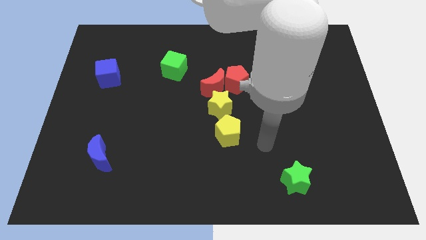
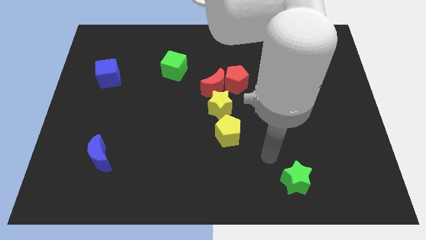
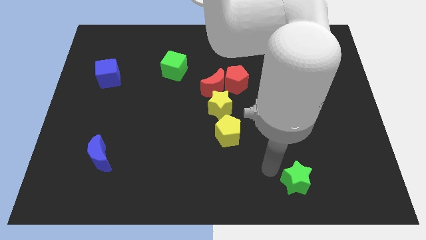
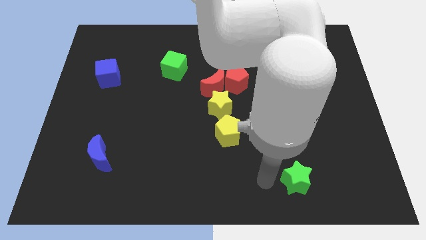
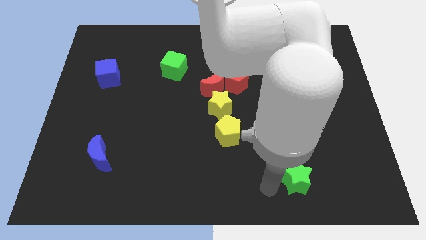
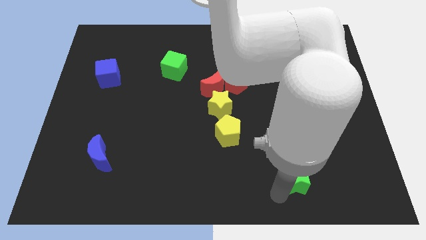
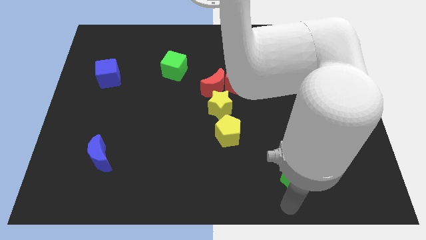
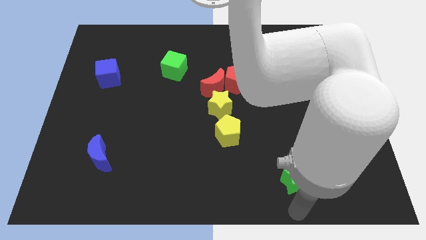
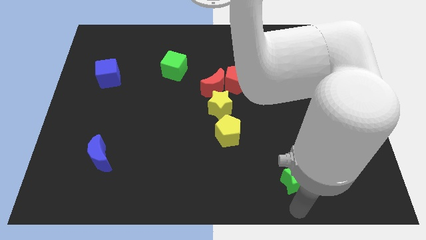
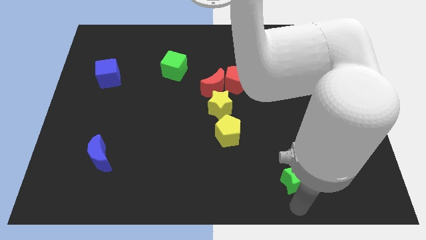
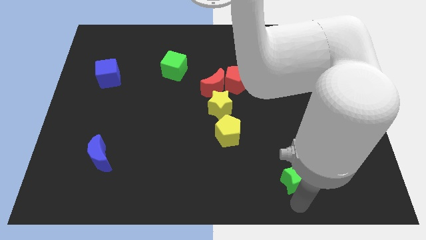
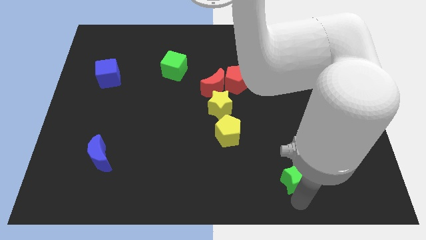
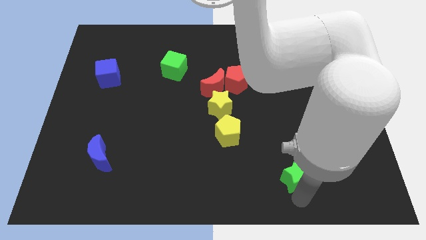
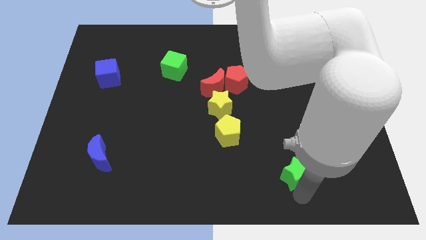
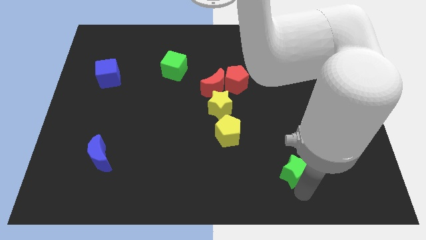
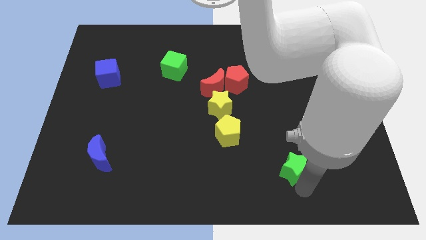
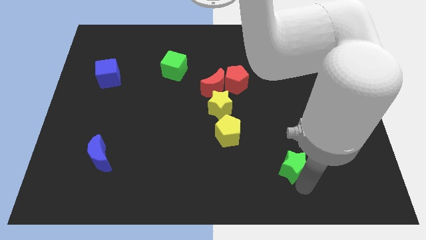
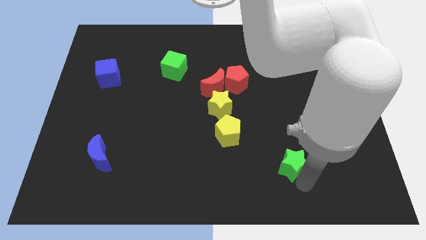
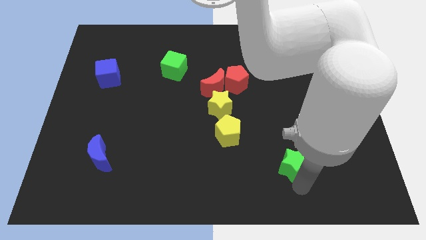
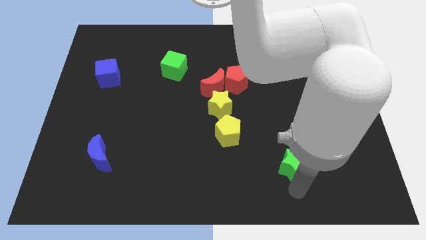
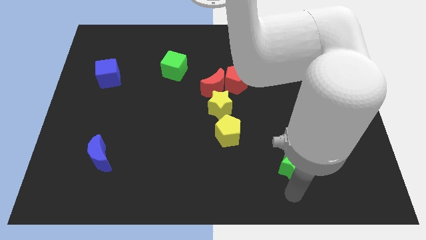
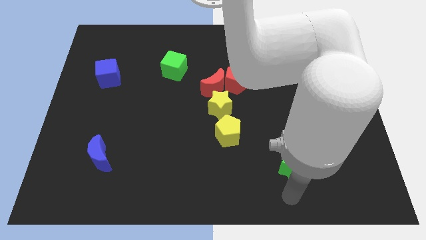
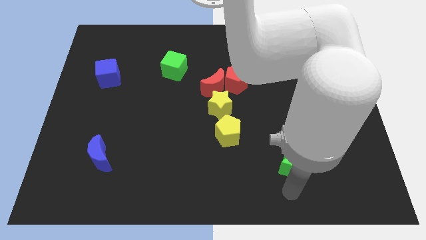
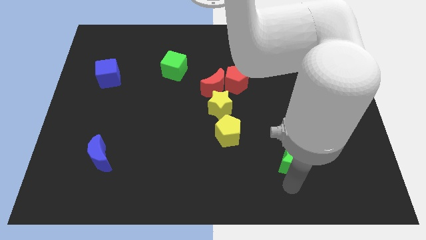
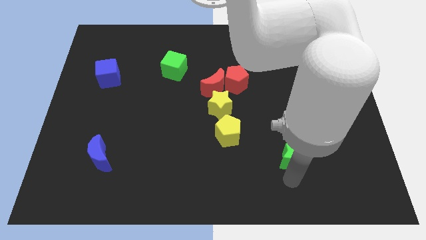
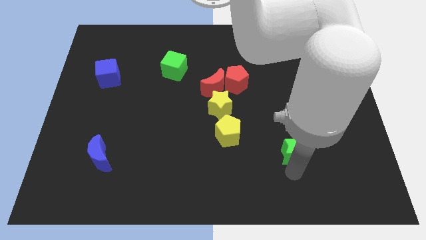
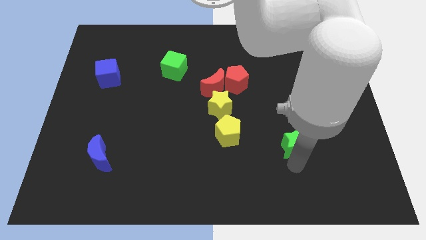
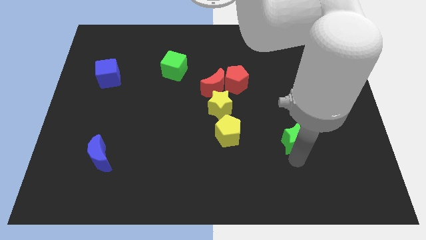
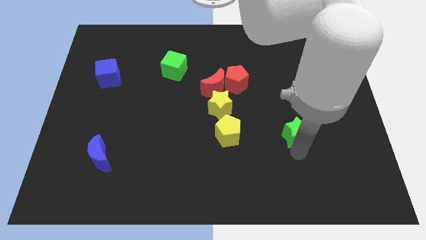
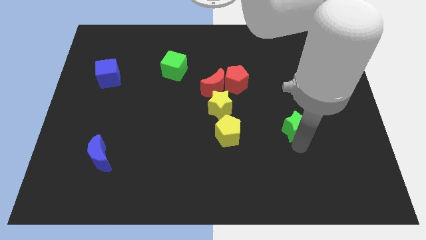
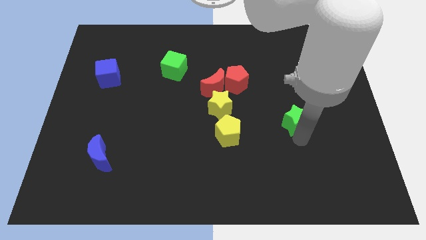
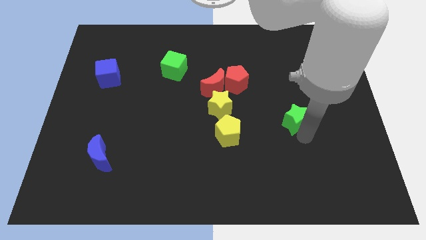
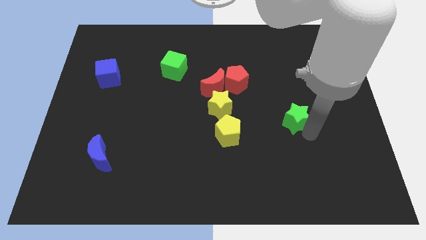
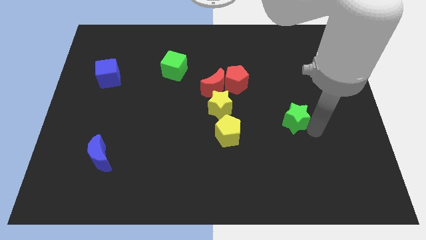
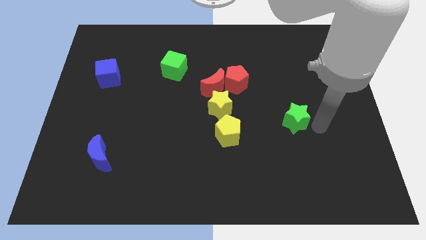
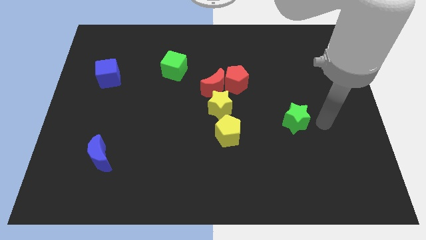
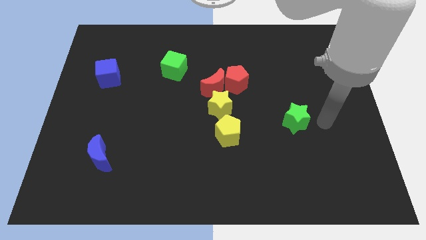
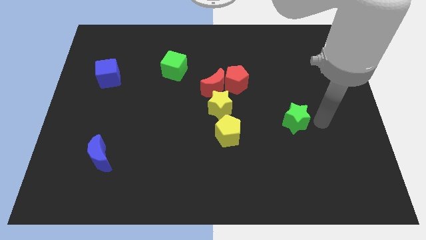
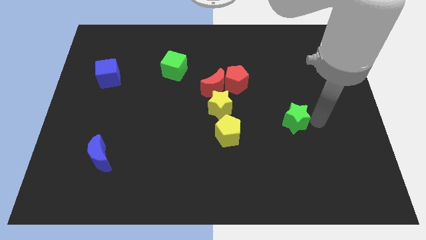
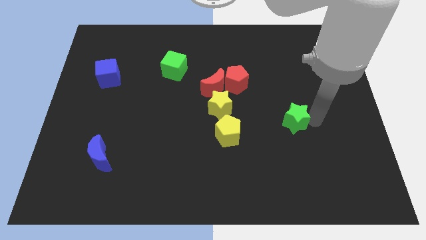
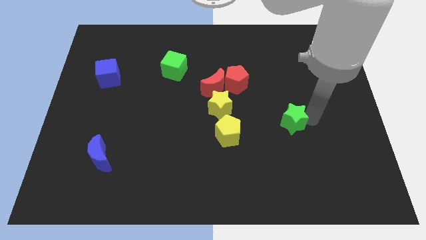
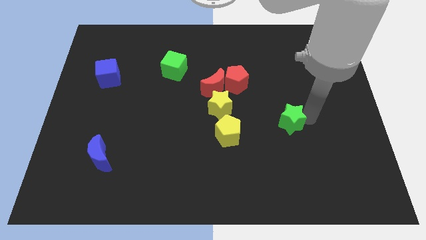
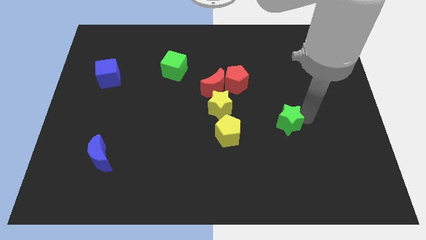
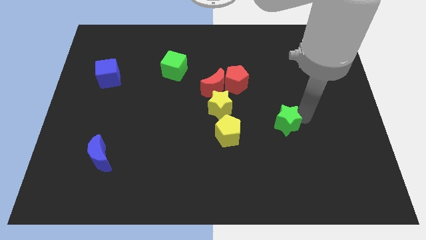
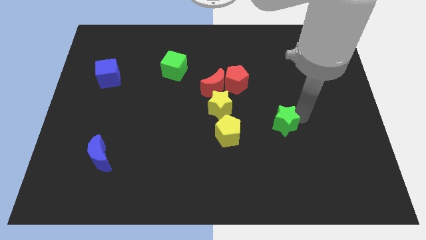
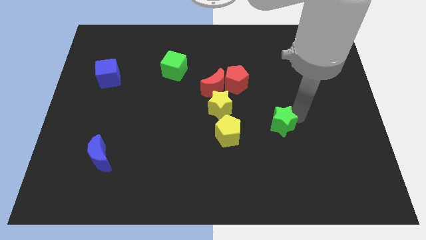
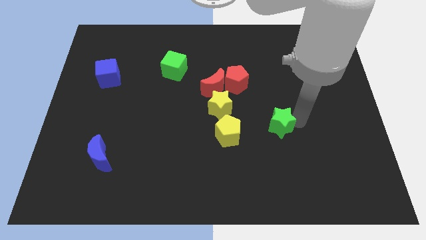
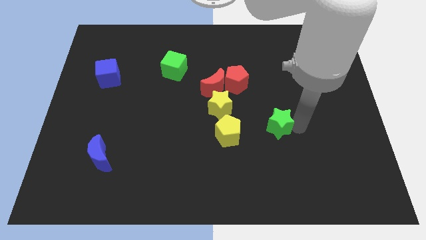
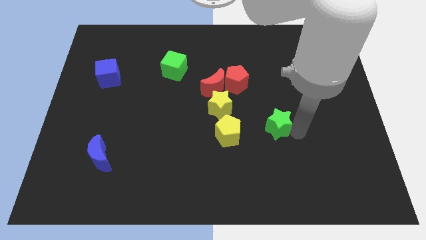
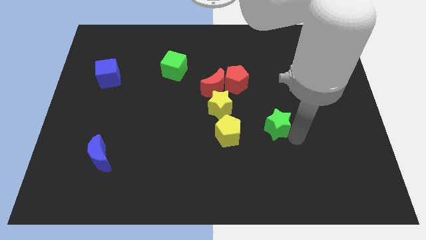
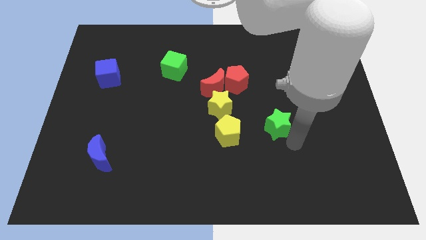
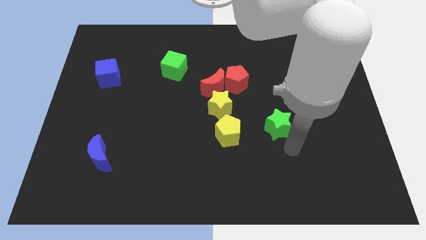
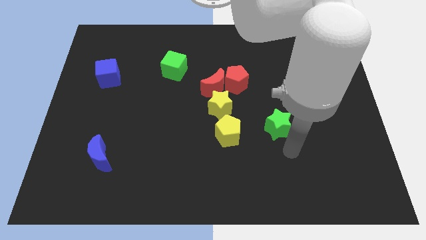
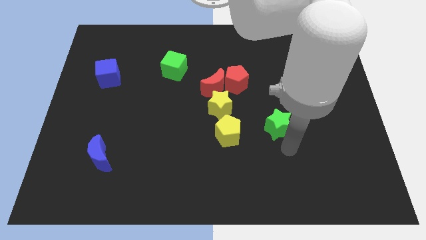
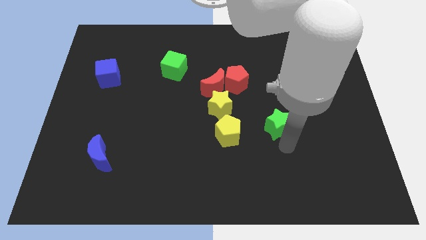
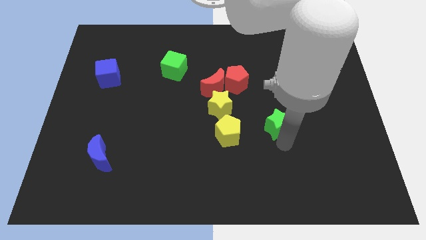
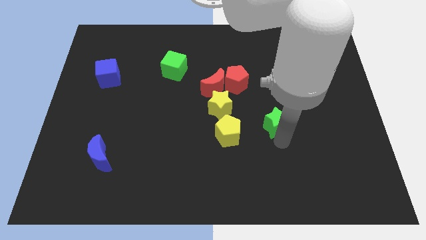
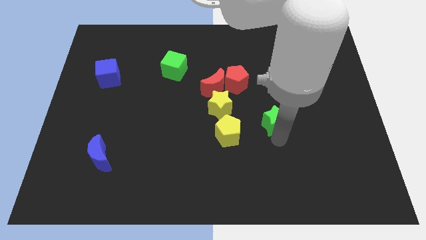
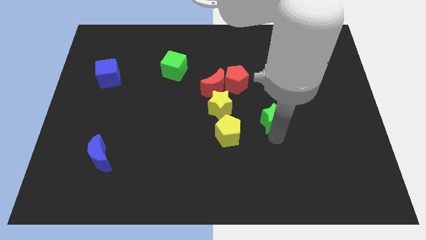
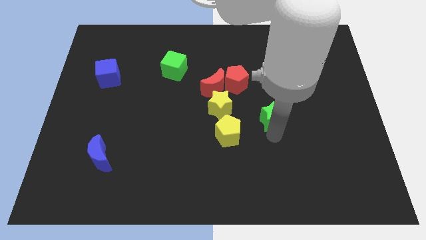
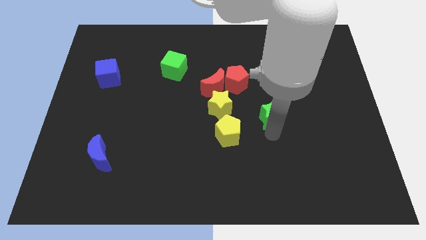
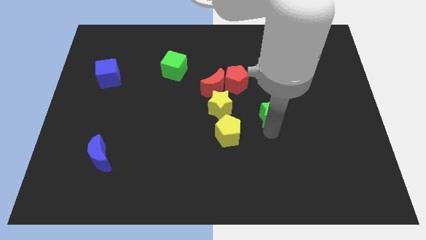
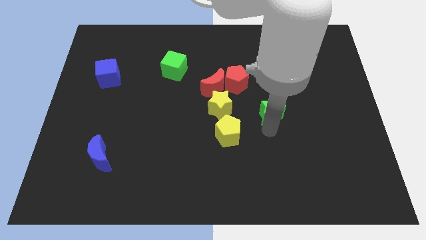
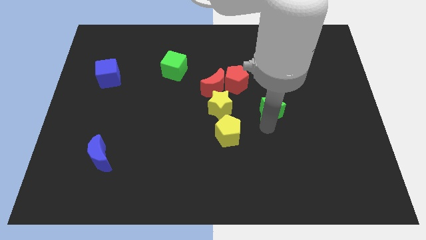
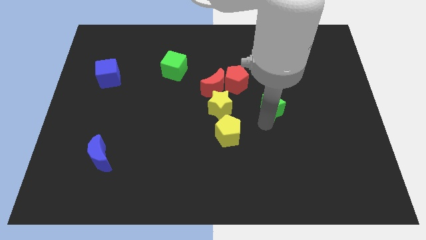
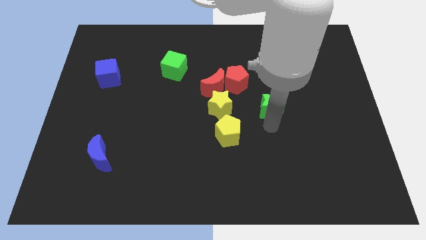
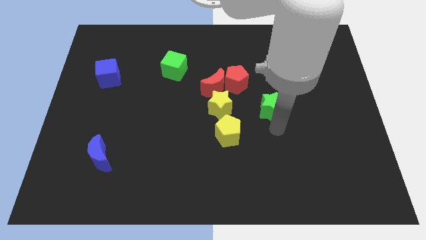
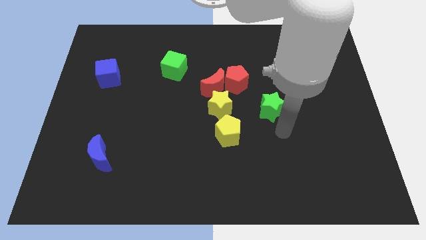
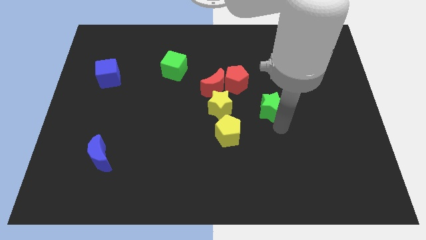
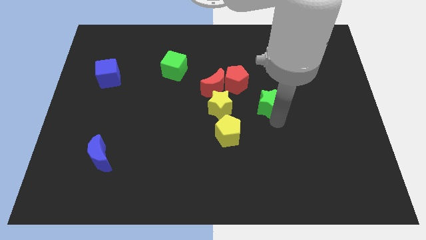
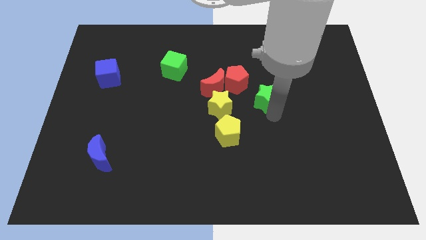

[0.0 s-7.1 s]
move the green star to the right side of the red moon
